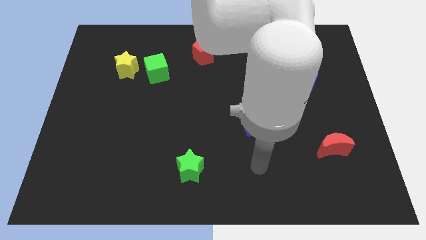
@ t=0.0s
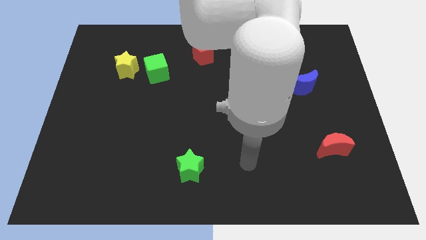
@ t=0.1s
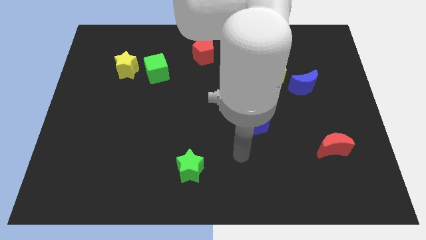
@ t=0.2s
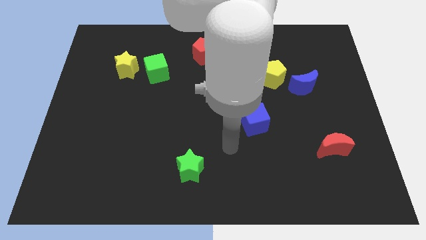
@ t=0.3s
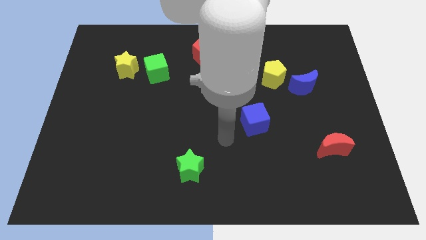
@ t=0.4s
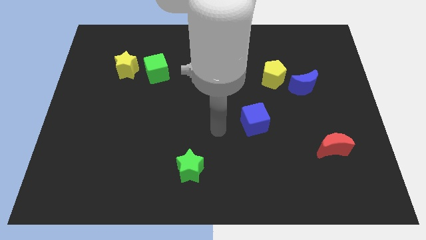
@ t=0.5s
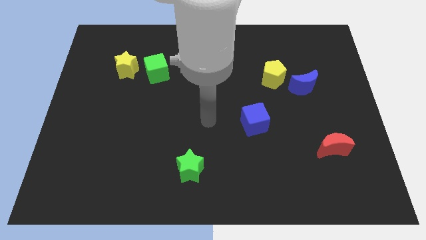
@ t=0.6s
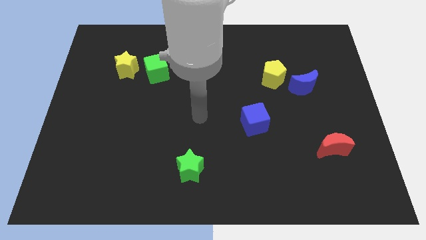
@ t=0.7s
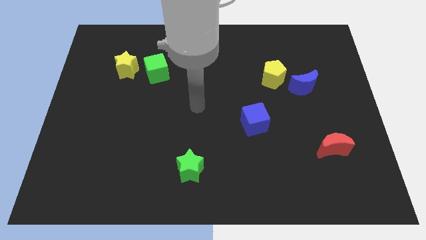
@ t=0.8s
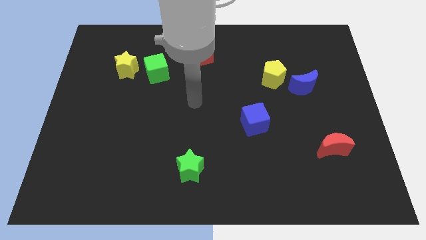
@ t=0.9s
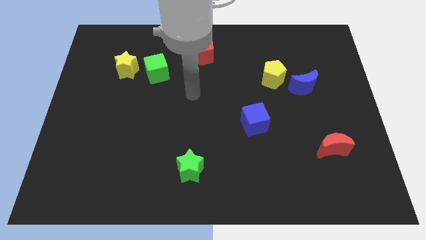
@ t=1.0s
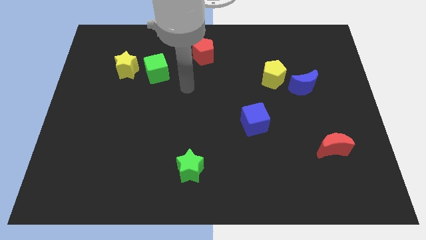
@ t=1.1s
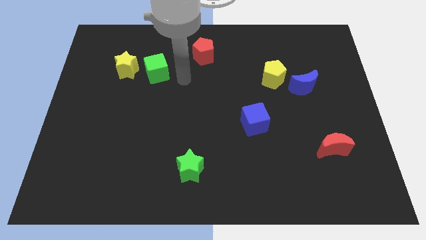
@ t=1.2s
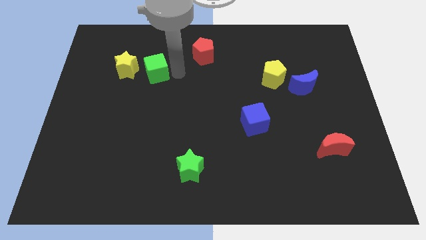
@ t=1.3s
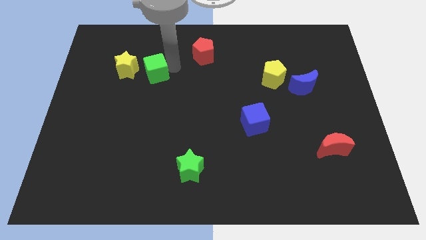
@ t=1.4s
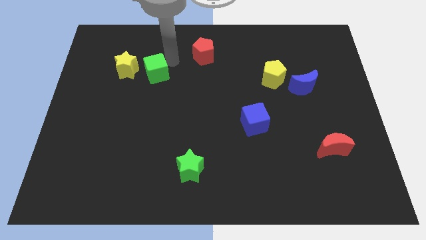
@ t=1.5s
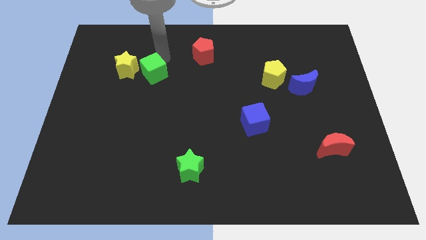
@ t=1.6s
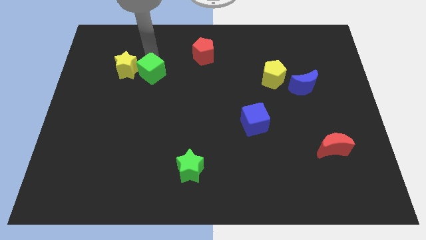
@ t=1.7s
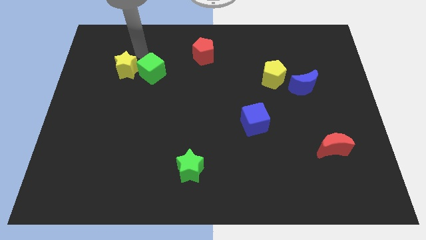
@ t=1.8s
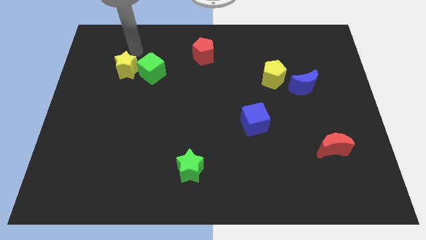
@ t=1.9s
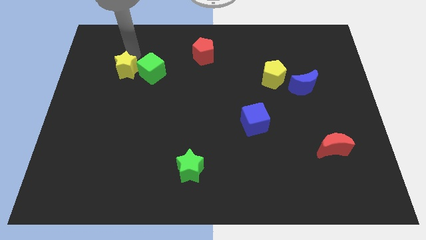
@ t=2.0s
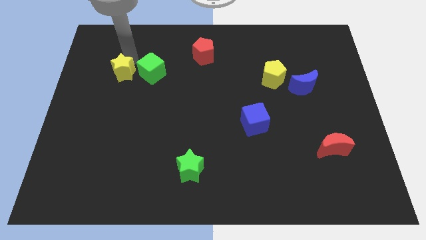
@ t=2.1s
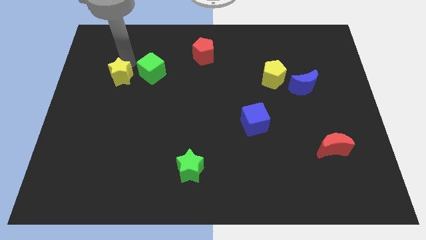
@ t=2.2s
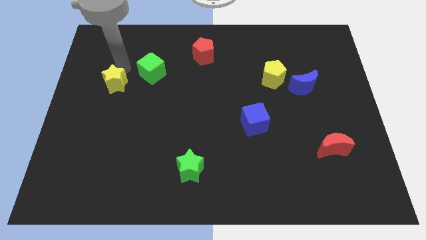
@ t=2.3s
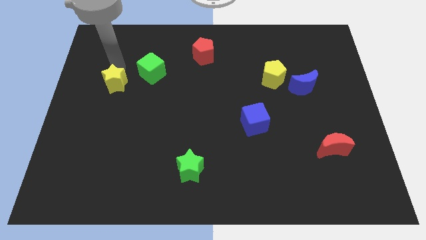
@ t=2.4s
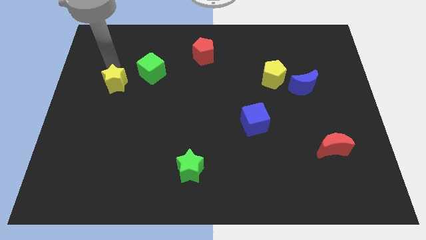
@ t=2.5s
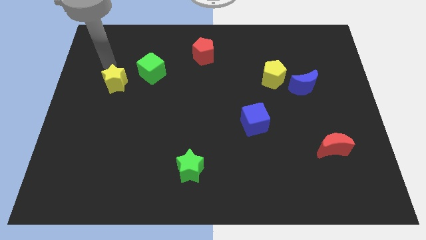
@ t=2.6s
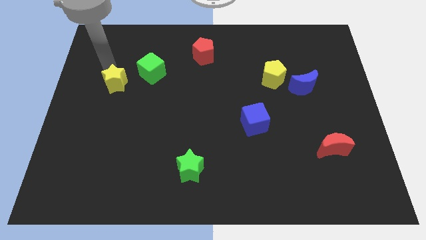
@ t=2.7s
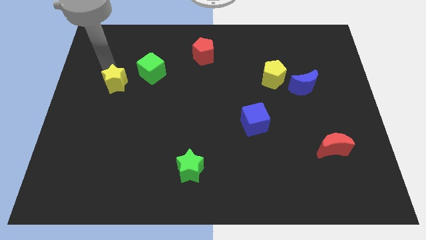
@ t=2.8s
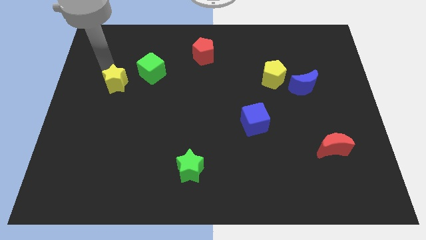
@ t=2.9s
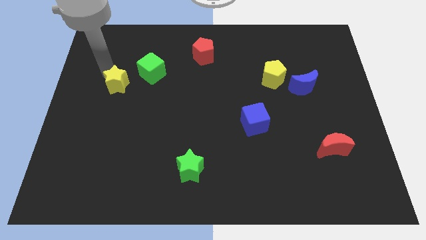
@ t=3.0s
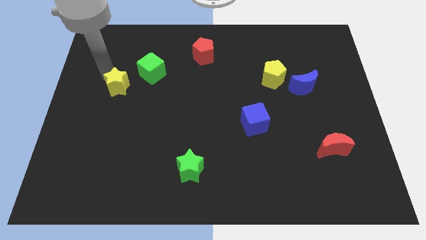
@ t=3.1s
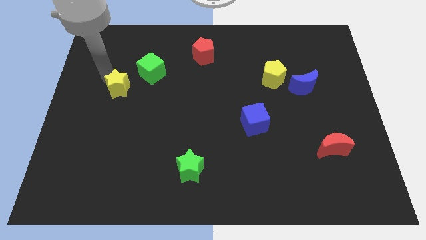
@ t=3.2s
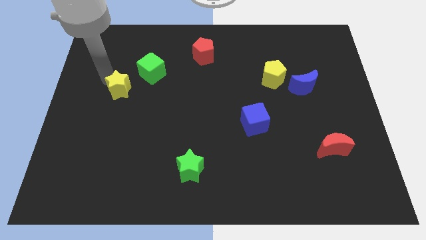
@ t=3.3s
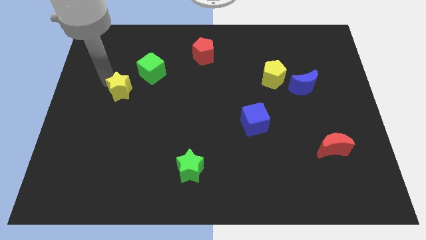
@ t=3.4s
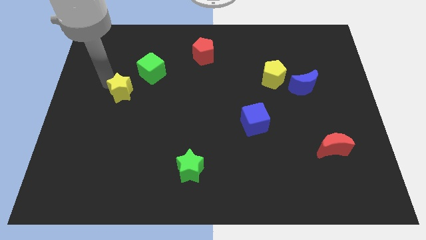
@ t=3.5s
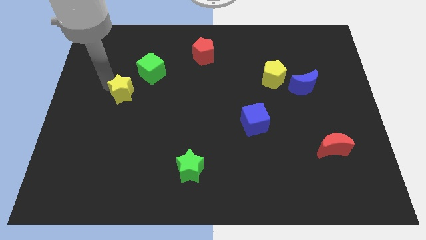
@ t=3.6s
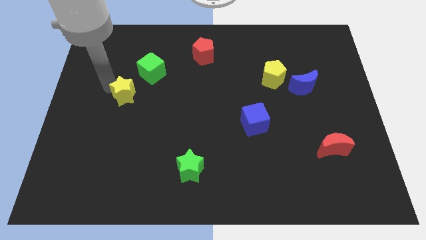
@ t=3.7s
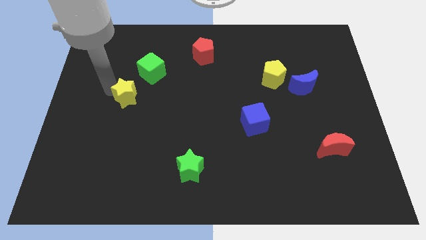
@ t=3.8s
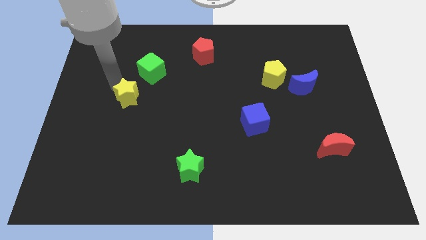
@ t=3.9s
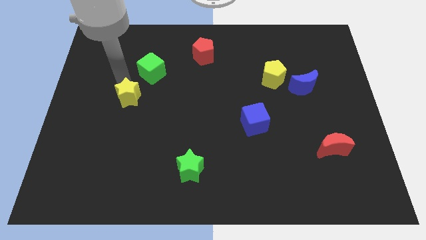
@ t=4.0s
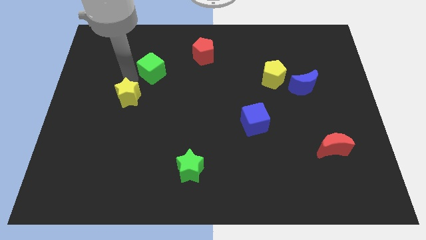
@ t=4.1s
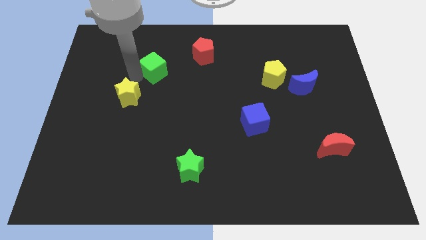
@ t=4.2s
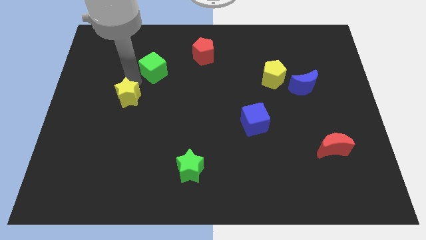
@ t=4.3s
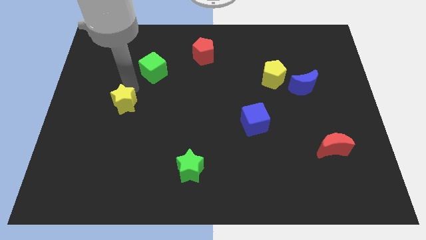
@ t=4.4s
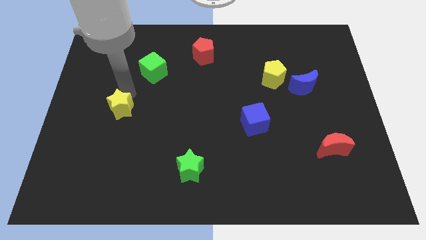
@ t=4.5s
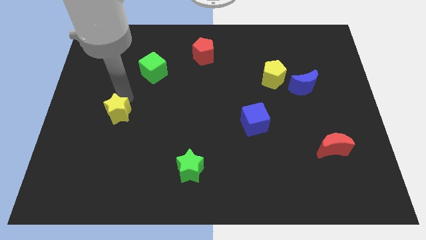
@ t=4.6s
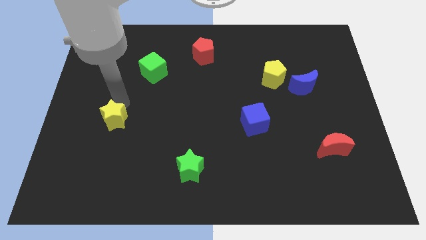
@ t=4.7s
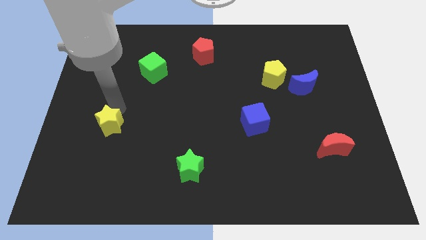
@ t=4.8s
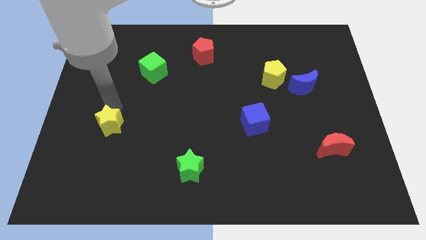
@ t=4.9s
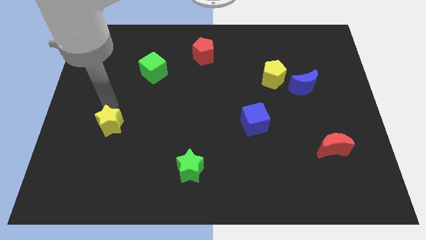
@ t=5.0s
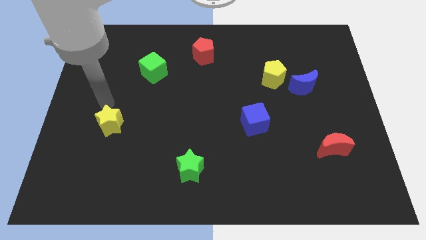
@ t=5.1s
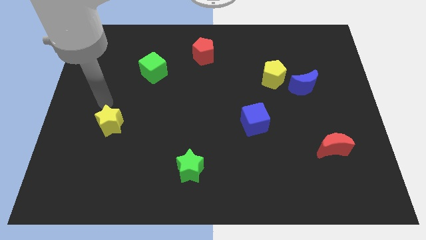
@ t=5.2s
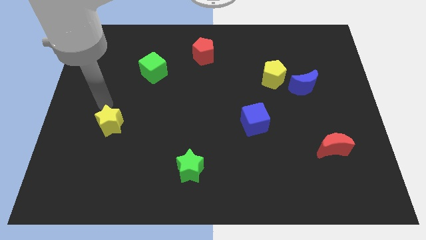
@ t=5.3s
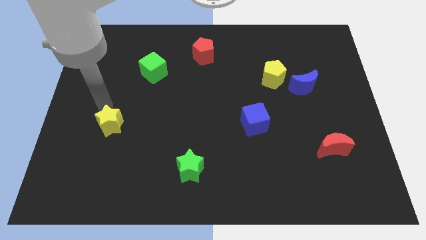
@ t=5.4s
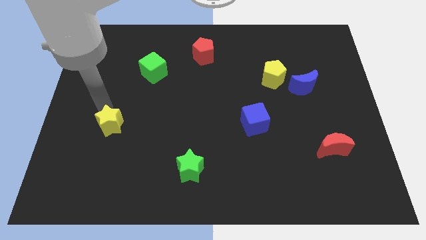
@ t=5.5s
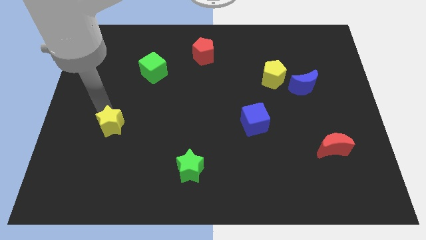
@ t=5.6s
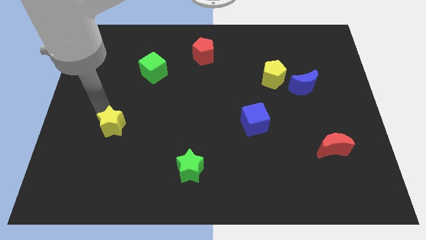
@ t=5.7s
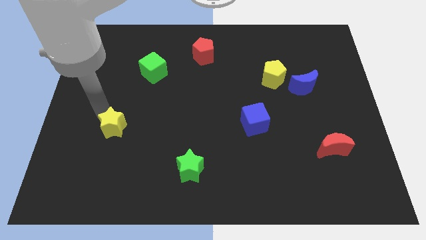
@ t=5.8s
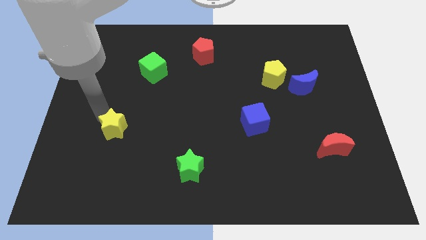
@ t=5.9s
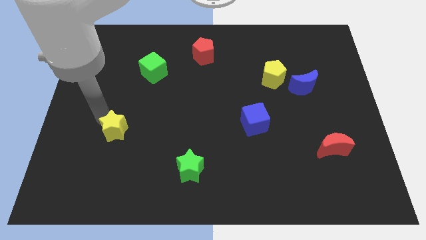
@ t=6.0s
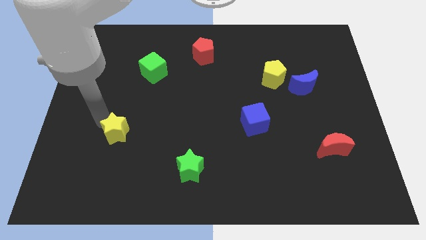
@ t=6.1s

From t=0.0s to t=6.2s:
slide the yellow star downwards

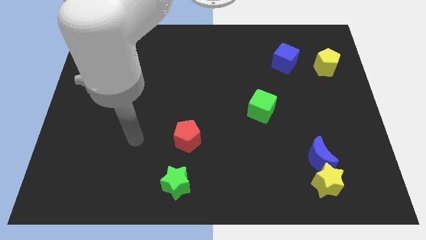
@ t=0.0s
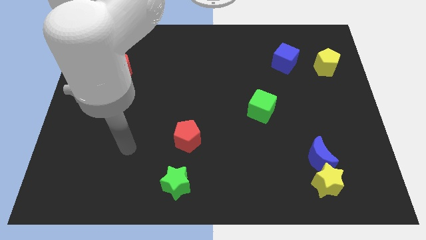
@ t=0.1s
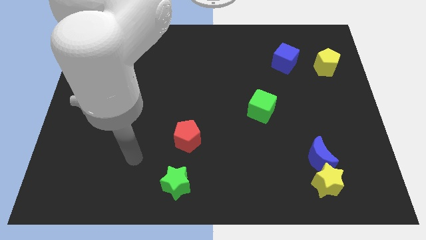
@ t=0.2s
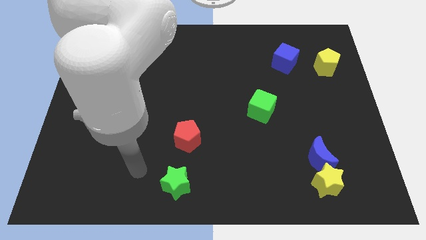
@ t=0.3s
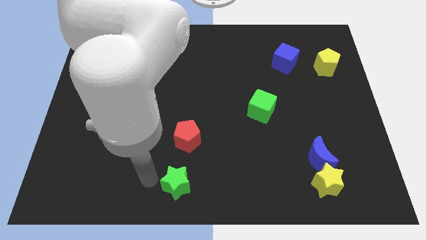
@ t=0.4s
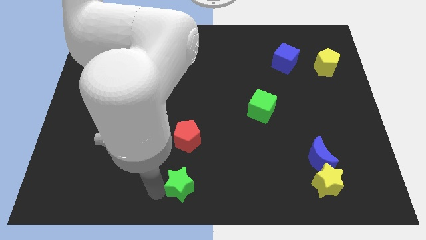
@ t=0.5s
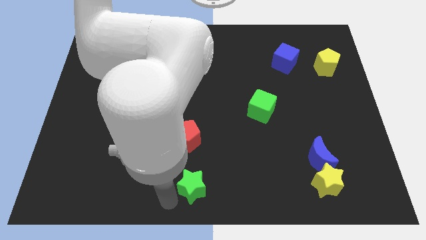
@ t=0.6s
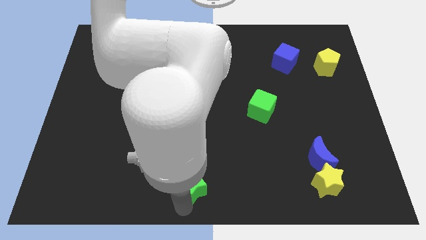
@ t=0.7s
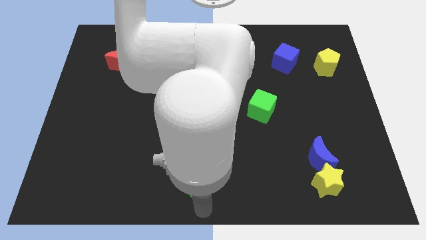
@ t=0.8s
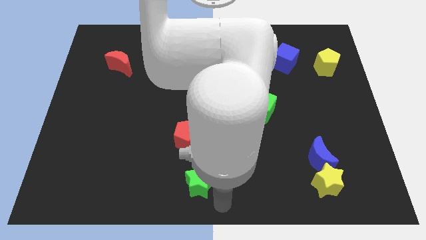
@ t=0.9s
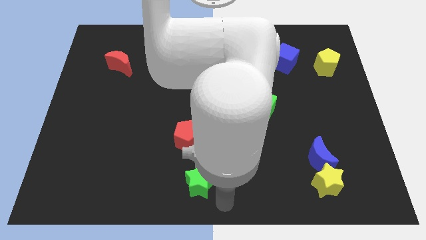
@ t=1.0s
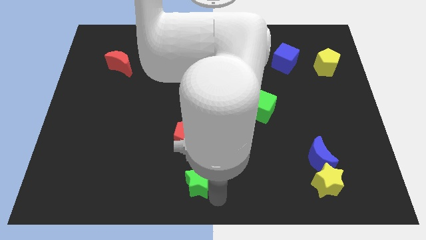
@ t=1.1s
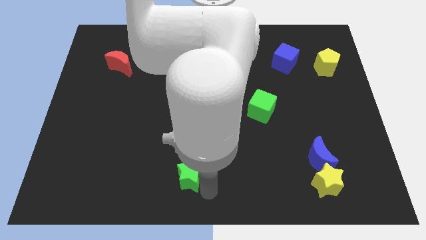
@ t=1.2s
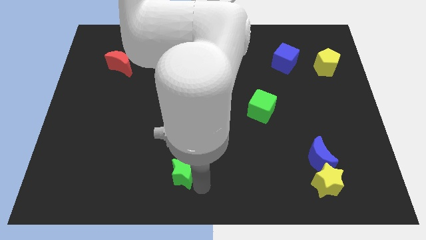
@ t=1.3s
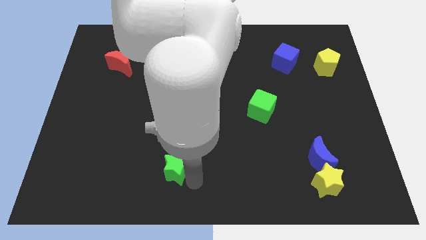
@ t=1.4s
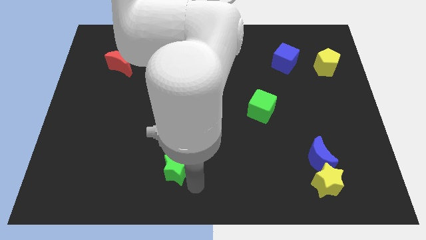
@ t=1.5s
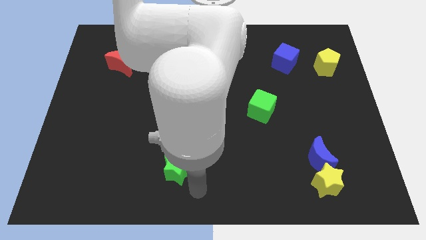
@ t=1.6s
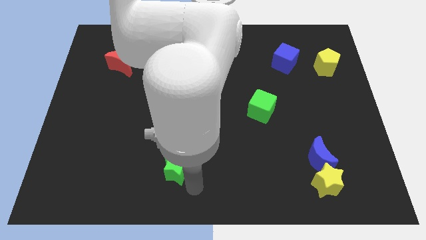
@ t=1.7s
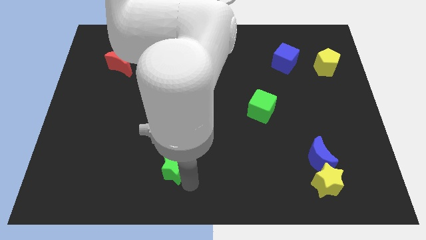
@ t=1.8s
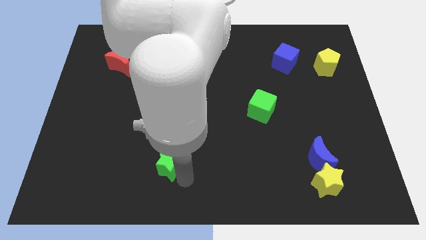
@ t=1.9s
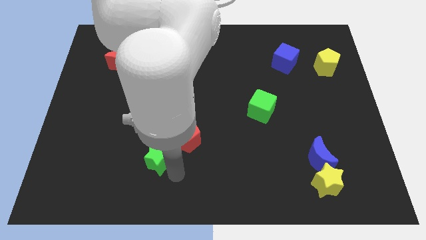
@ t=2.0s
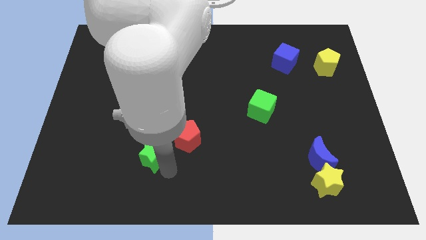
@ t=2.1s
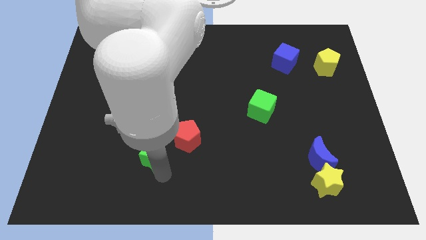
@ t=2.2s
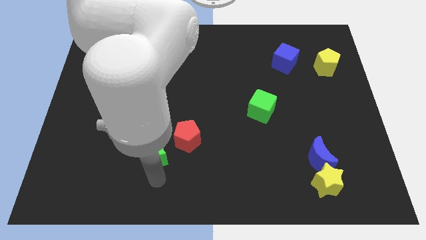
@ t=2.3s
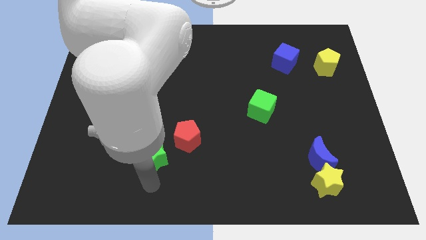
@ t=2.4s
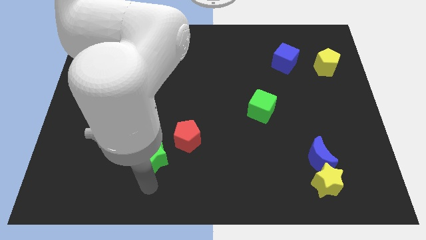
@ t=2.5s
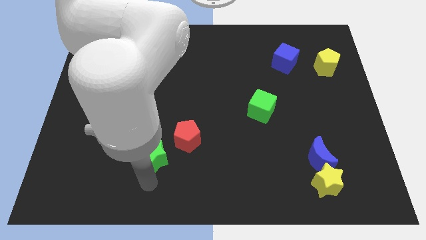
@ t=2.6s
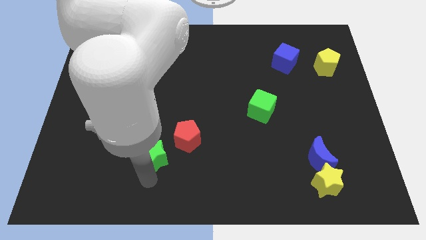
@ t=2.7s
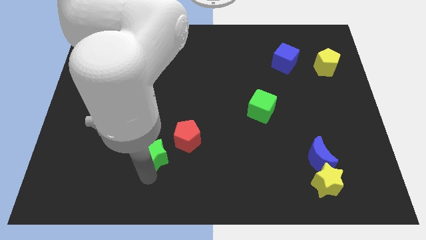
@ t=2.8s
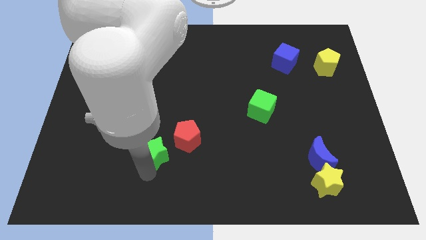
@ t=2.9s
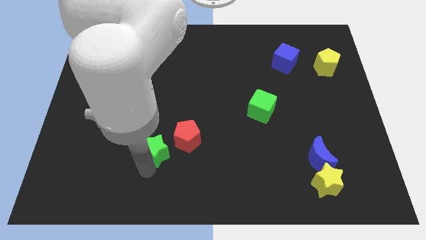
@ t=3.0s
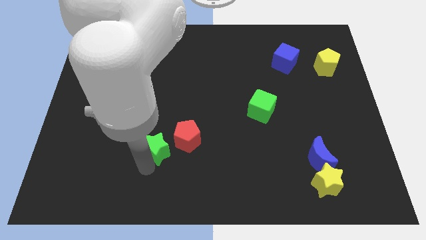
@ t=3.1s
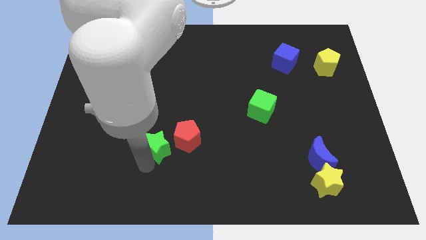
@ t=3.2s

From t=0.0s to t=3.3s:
slide the green star upwards somewhat
